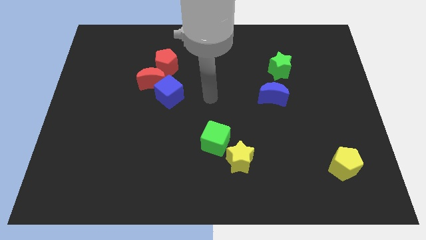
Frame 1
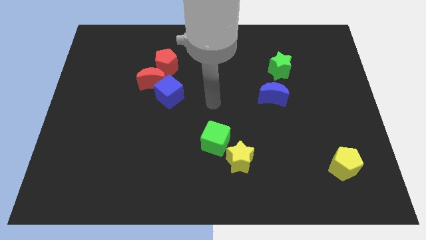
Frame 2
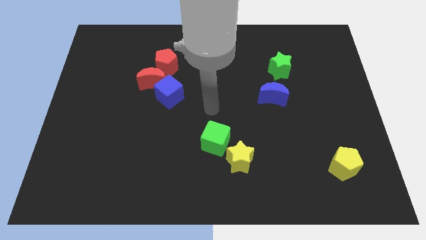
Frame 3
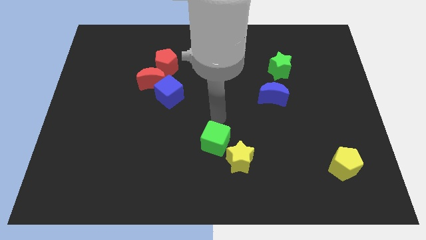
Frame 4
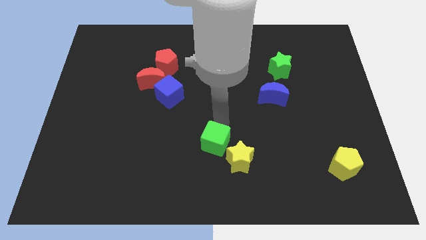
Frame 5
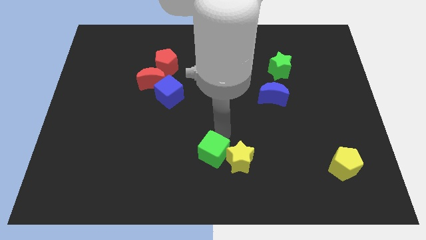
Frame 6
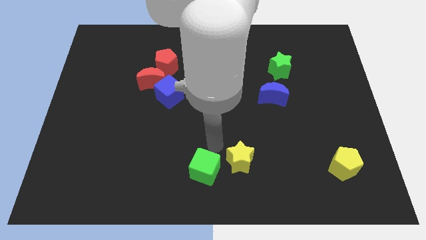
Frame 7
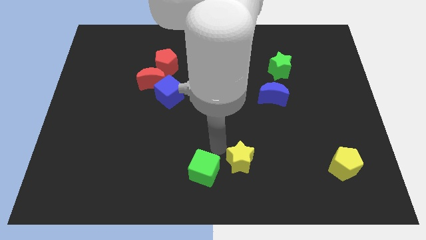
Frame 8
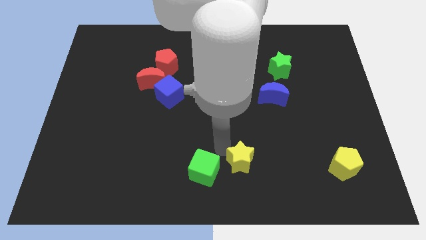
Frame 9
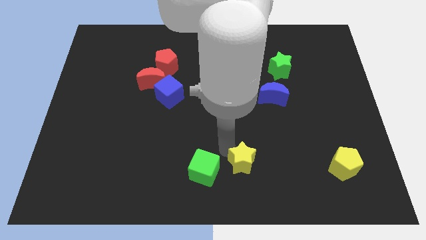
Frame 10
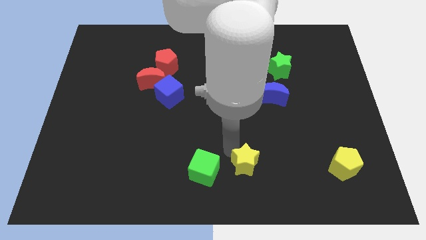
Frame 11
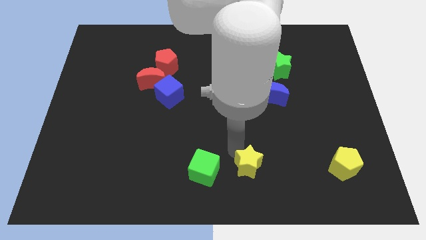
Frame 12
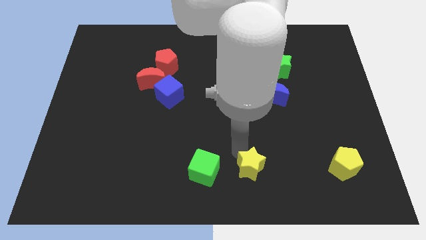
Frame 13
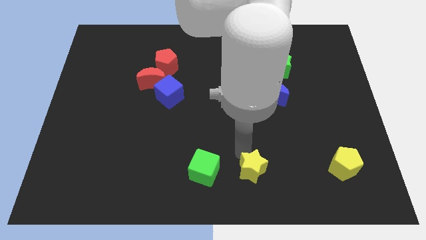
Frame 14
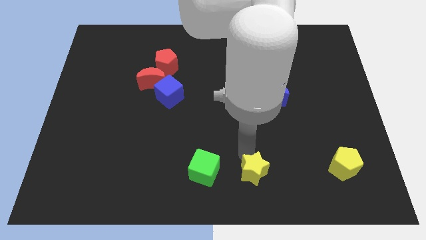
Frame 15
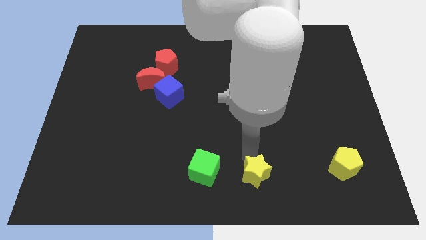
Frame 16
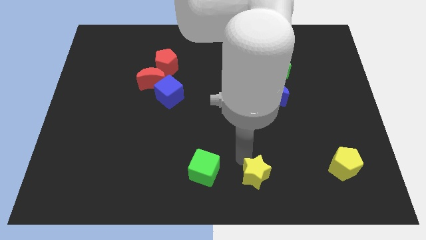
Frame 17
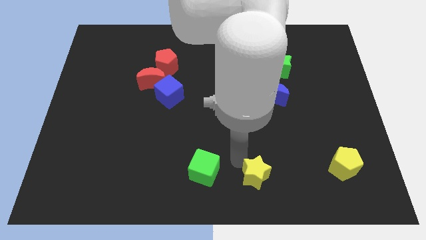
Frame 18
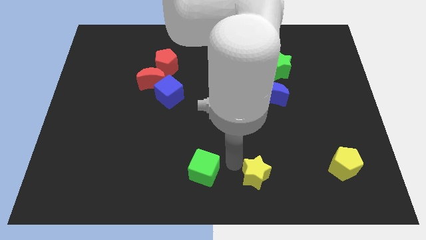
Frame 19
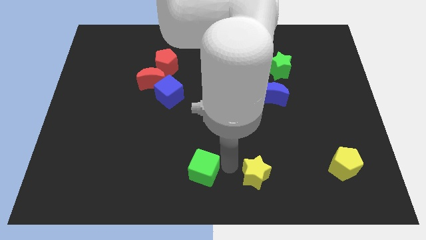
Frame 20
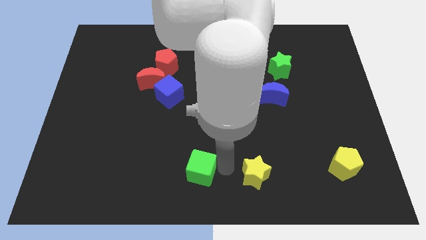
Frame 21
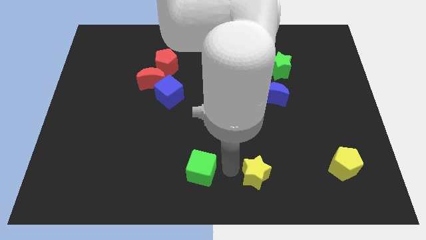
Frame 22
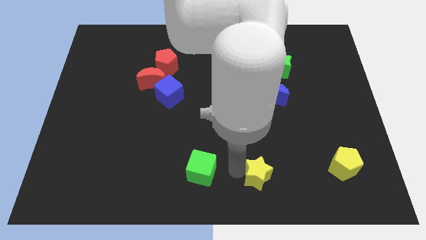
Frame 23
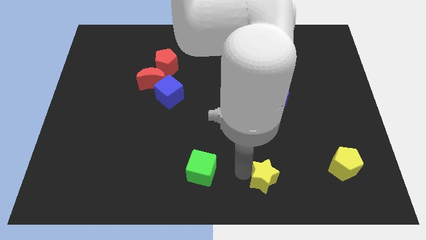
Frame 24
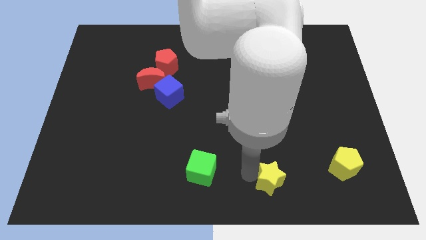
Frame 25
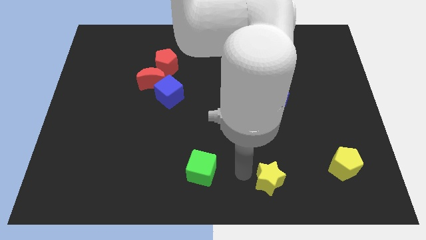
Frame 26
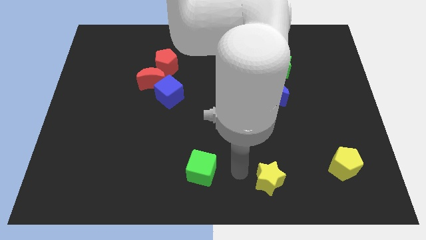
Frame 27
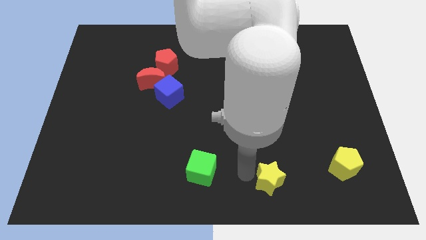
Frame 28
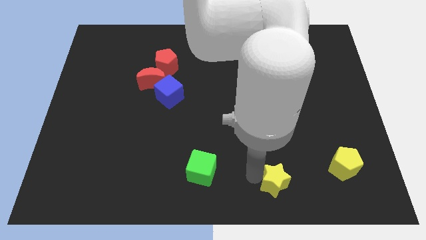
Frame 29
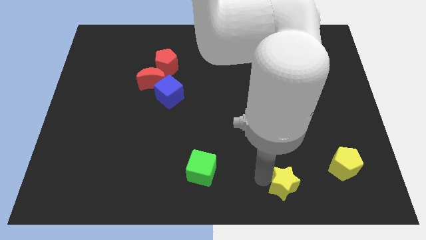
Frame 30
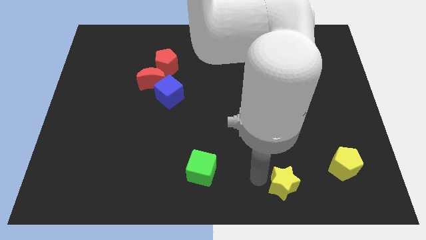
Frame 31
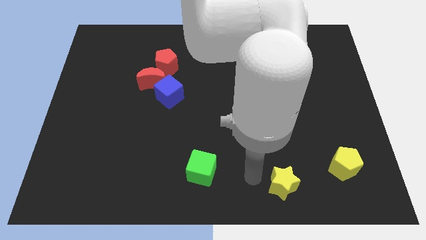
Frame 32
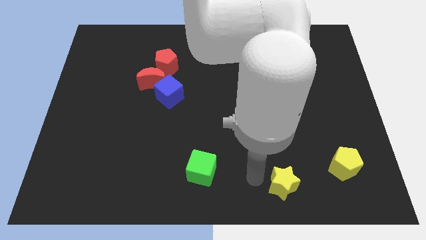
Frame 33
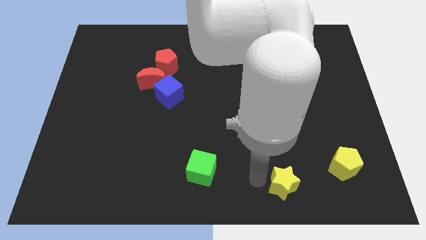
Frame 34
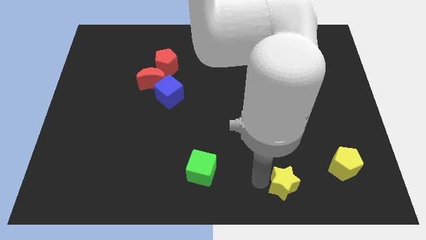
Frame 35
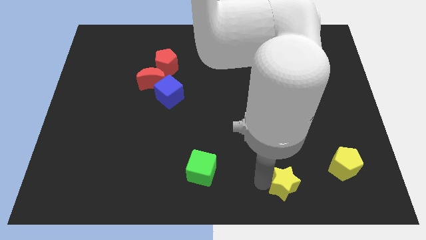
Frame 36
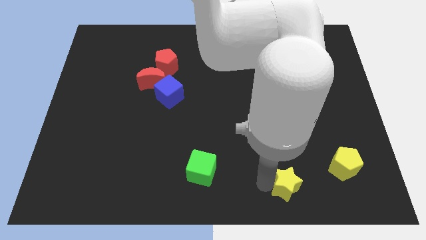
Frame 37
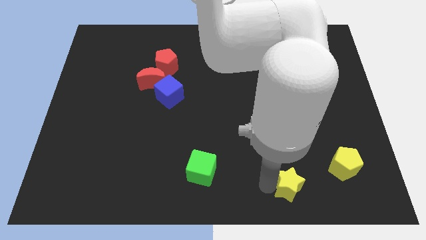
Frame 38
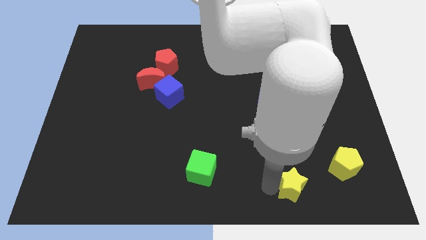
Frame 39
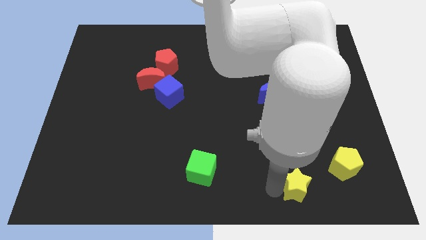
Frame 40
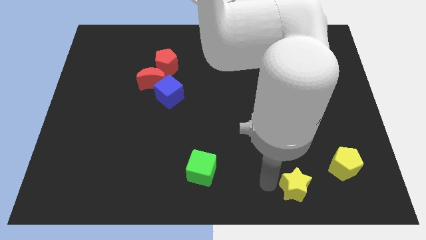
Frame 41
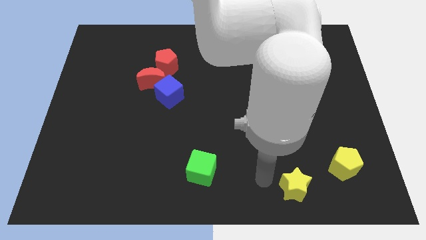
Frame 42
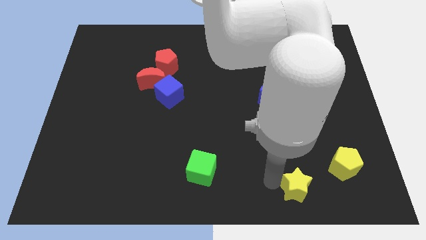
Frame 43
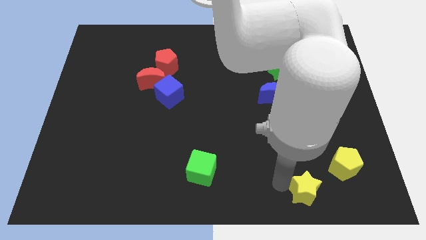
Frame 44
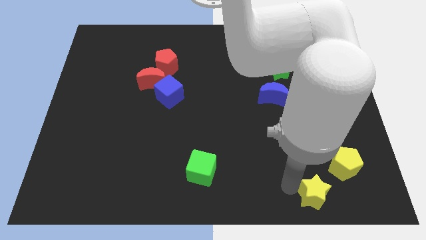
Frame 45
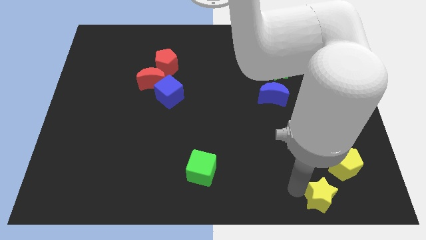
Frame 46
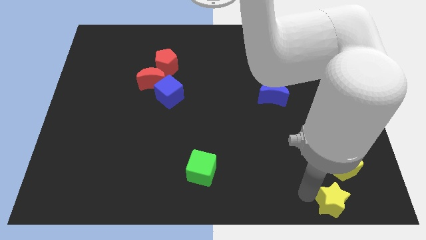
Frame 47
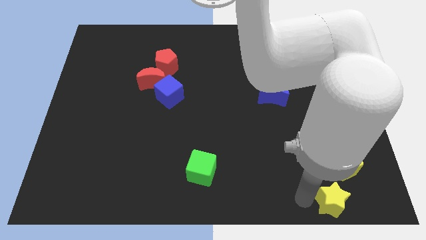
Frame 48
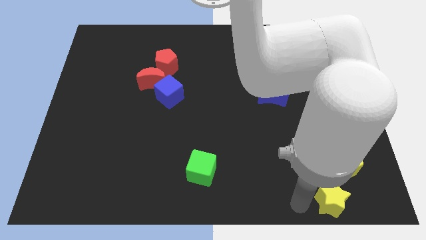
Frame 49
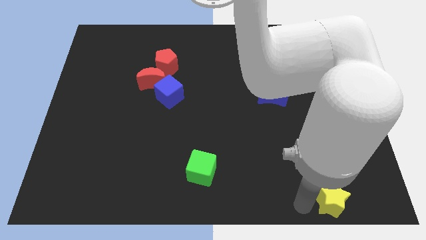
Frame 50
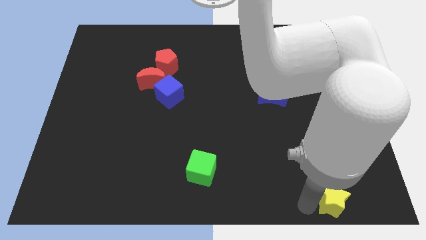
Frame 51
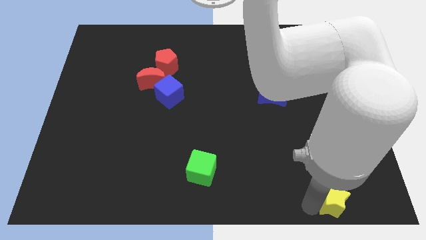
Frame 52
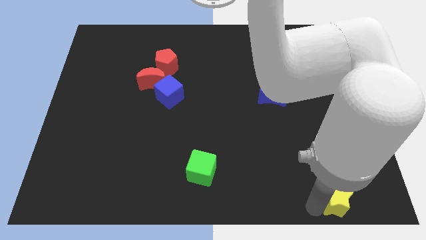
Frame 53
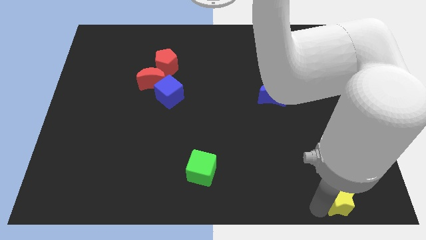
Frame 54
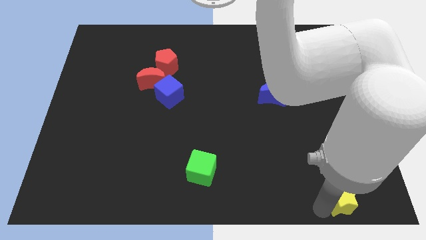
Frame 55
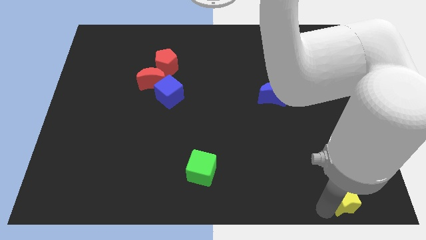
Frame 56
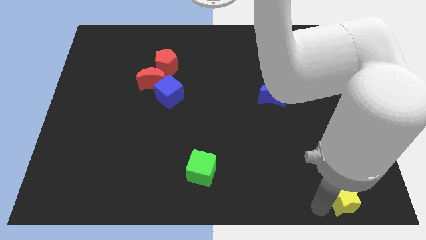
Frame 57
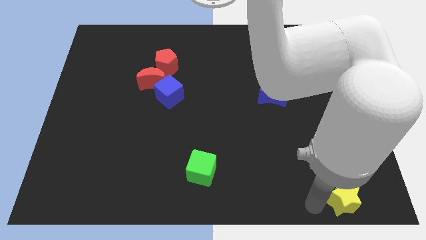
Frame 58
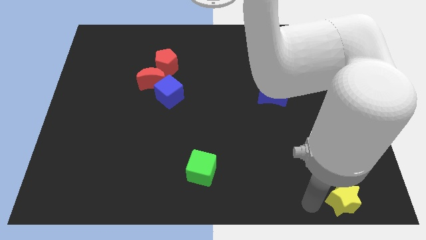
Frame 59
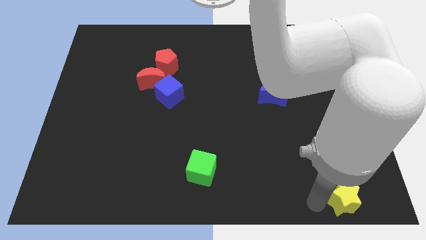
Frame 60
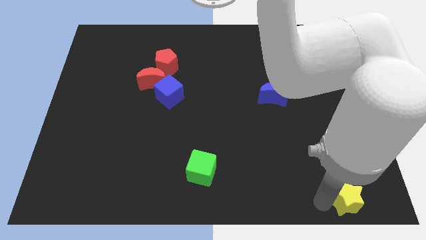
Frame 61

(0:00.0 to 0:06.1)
put the yellow star to the bottom right
